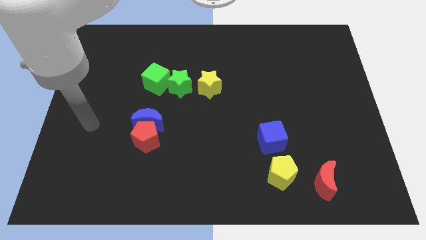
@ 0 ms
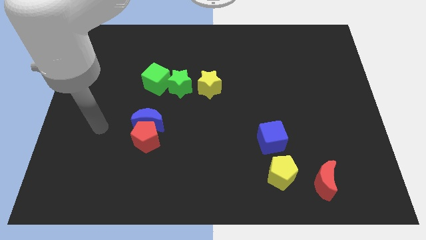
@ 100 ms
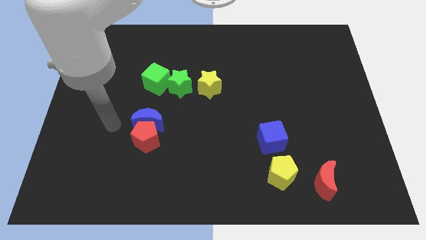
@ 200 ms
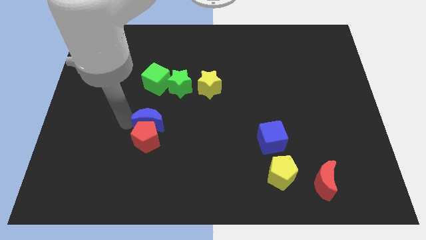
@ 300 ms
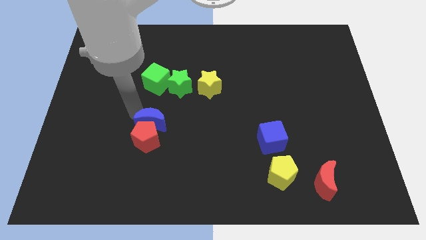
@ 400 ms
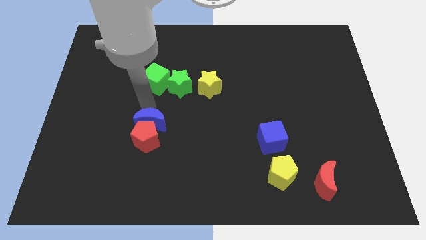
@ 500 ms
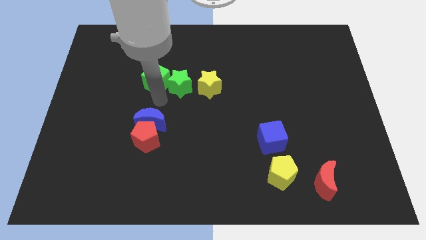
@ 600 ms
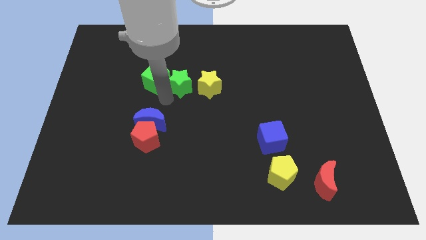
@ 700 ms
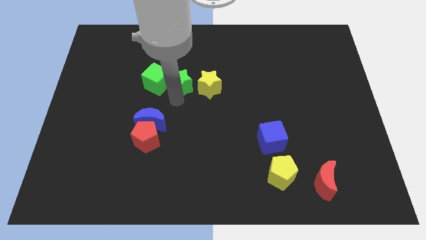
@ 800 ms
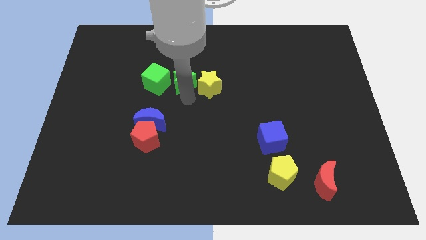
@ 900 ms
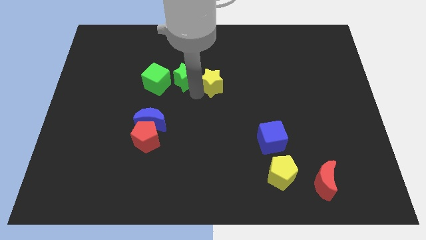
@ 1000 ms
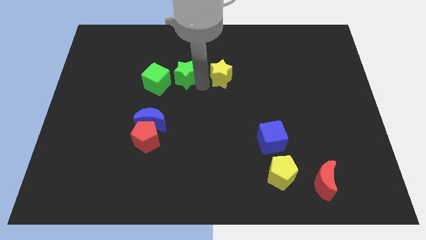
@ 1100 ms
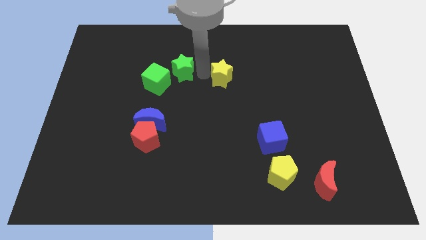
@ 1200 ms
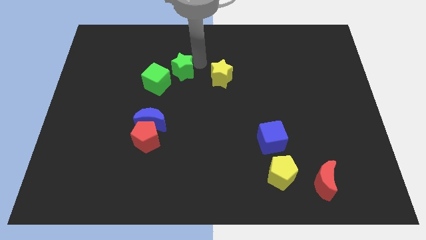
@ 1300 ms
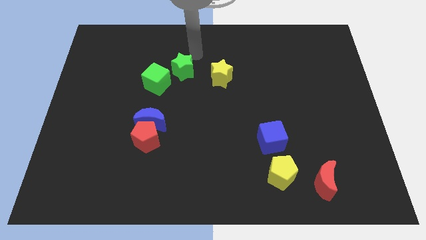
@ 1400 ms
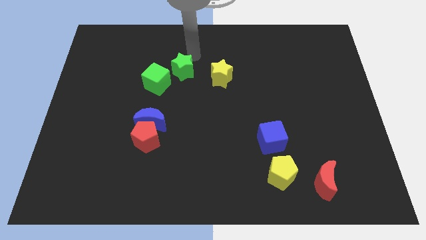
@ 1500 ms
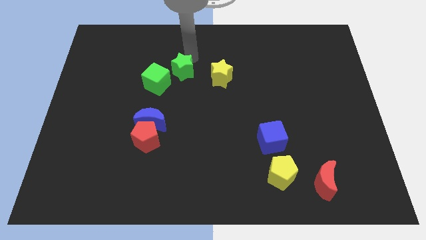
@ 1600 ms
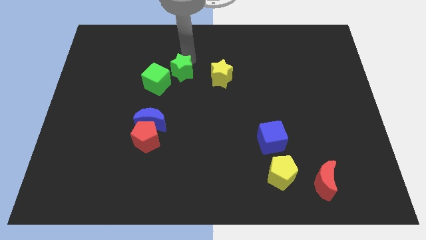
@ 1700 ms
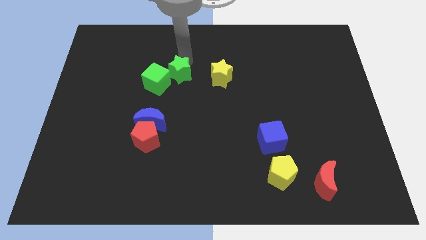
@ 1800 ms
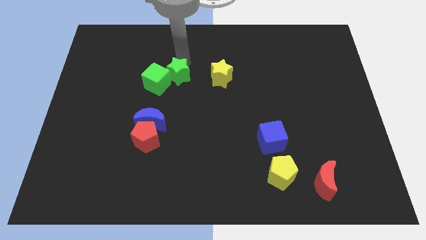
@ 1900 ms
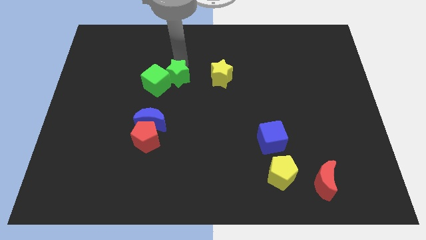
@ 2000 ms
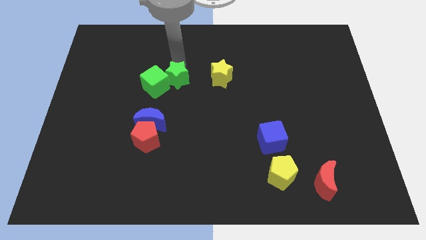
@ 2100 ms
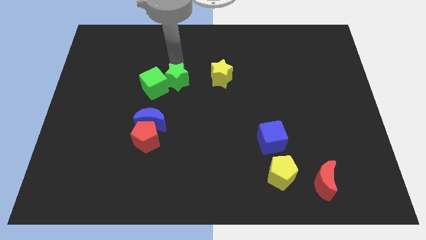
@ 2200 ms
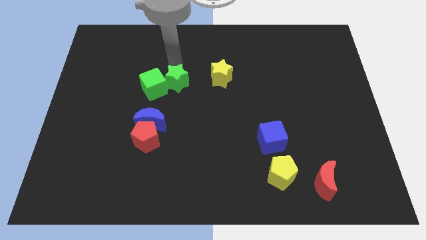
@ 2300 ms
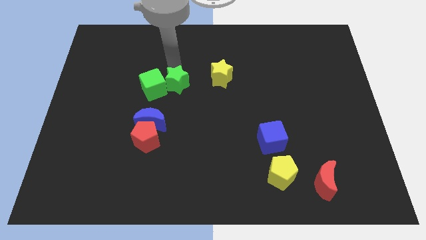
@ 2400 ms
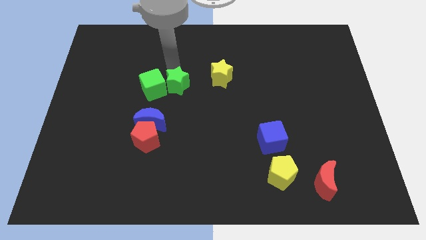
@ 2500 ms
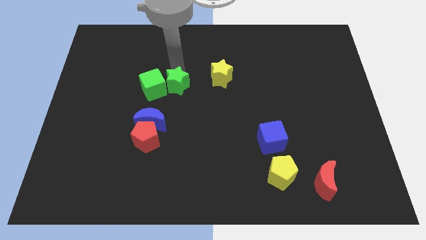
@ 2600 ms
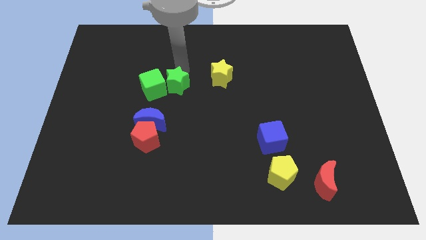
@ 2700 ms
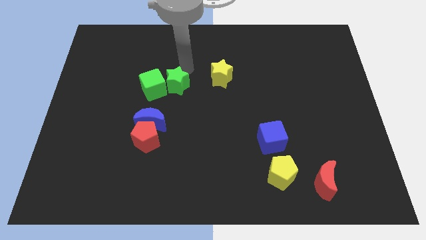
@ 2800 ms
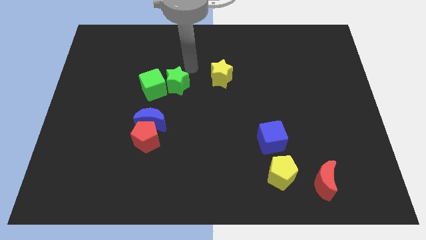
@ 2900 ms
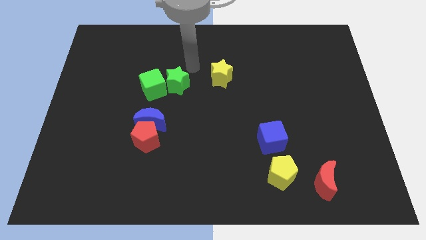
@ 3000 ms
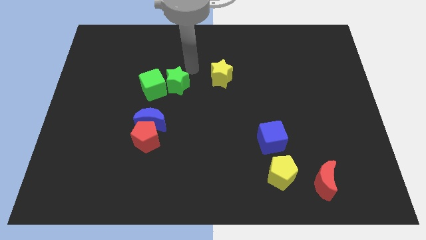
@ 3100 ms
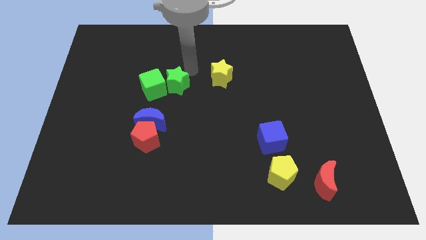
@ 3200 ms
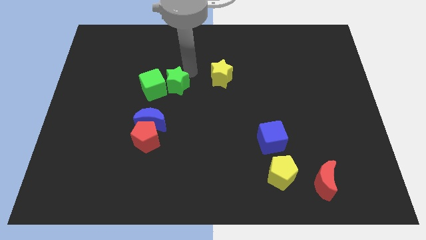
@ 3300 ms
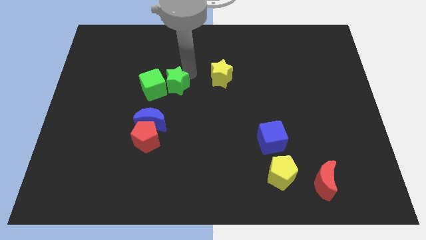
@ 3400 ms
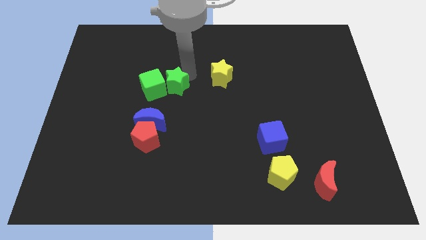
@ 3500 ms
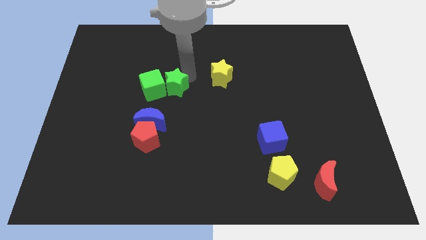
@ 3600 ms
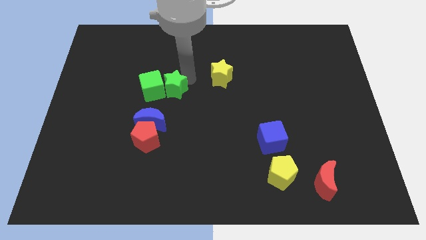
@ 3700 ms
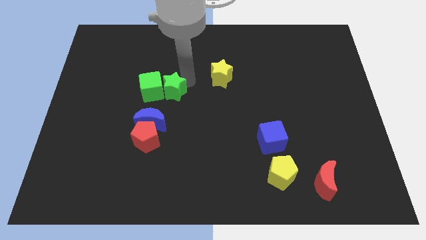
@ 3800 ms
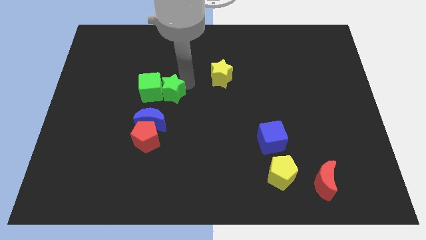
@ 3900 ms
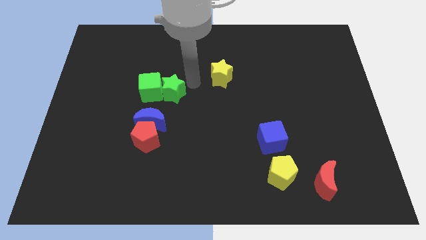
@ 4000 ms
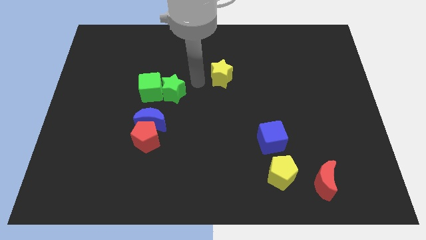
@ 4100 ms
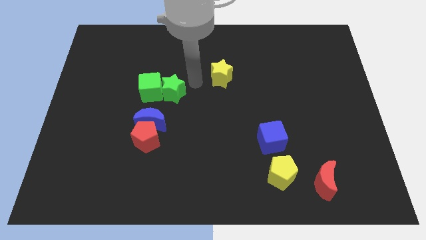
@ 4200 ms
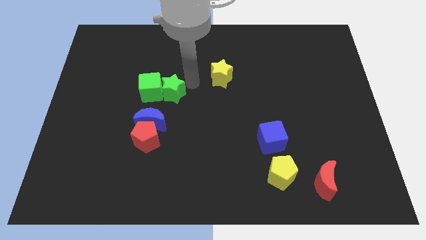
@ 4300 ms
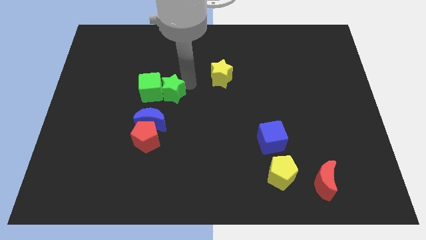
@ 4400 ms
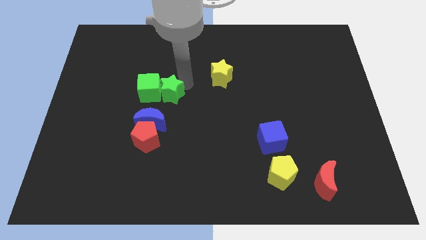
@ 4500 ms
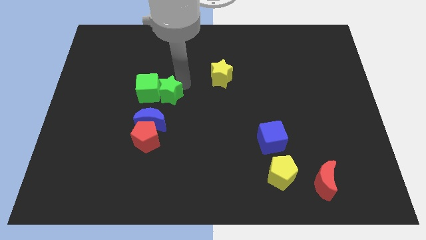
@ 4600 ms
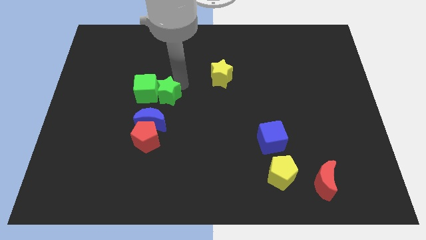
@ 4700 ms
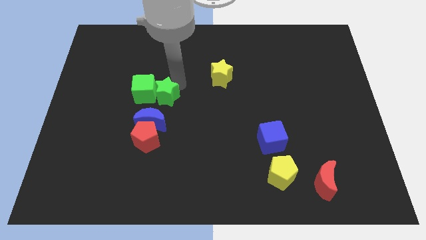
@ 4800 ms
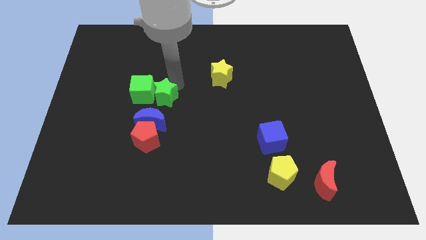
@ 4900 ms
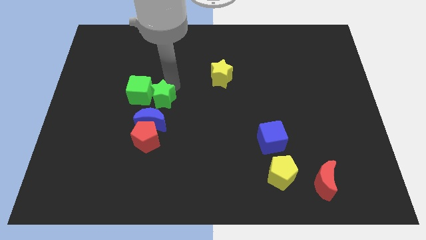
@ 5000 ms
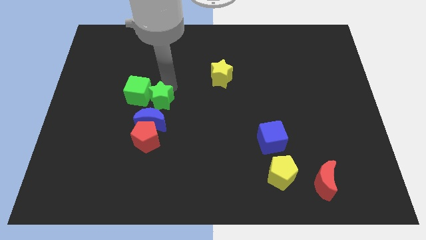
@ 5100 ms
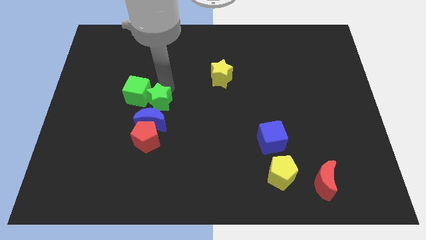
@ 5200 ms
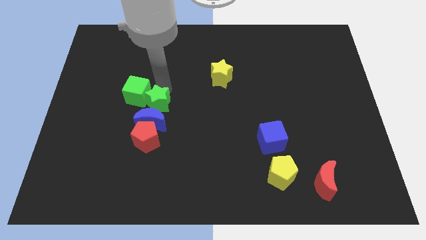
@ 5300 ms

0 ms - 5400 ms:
slightly push the green star diagonally downwards and to the left

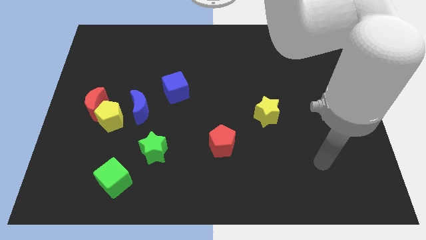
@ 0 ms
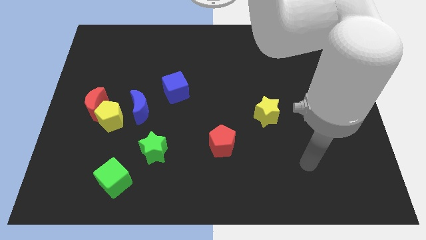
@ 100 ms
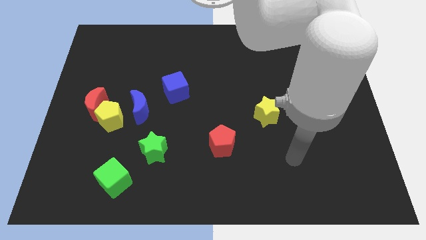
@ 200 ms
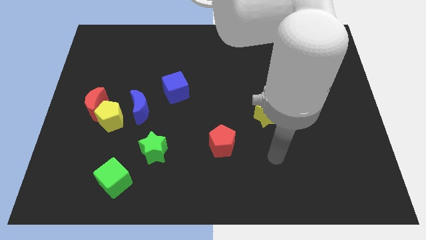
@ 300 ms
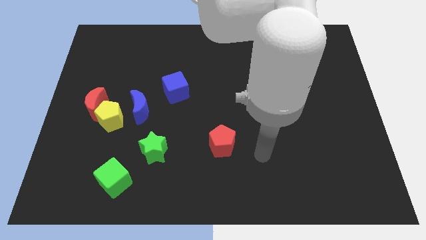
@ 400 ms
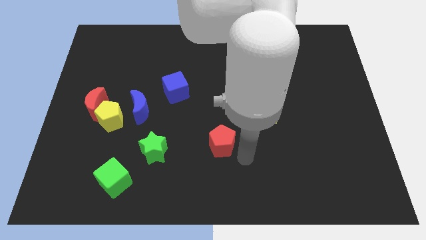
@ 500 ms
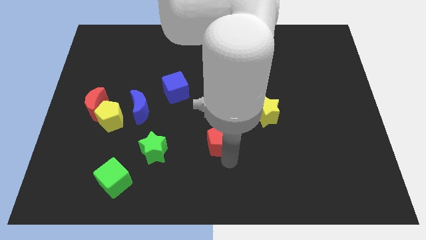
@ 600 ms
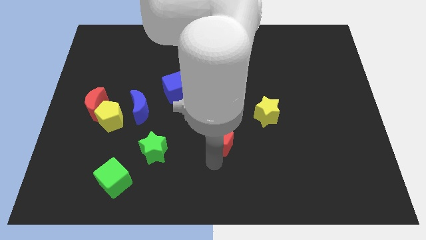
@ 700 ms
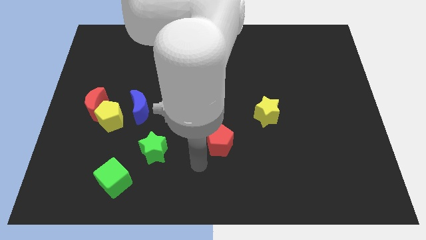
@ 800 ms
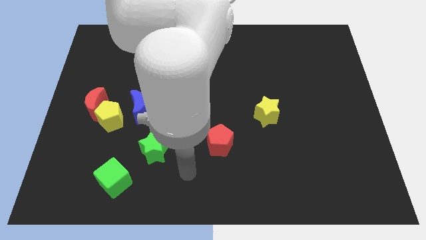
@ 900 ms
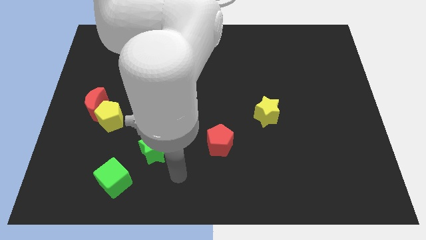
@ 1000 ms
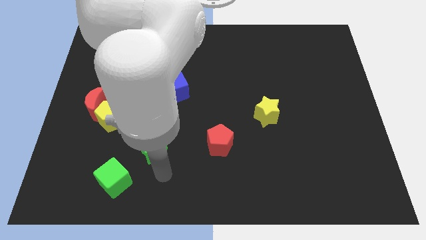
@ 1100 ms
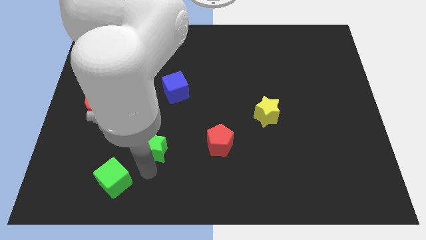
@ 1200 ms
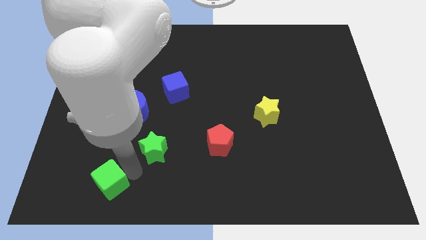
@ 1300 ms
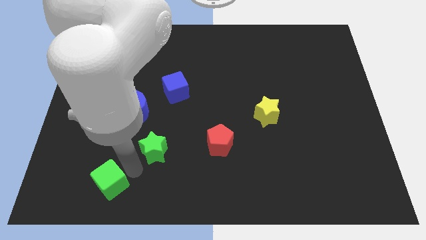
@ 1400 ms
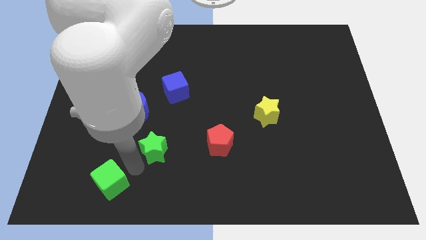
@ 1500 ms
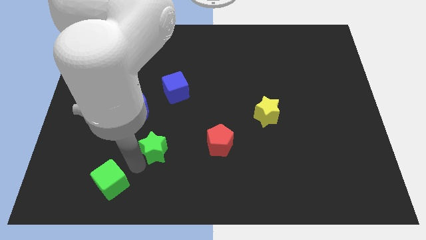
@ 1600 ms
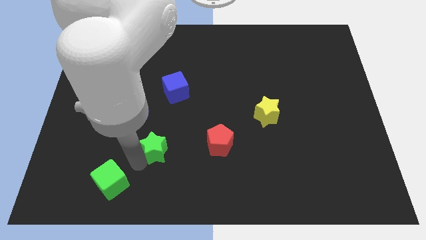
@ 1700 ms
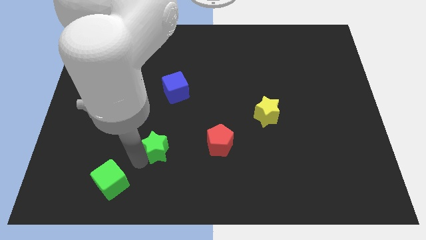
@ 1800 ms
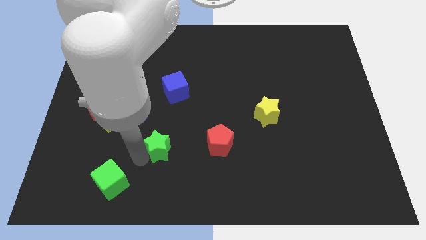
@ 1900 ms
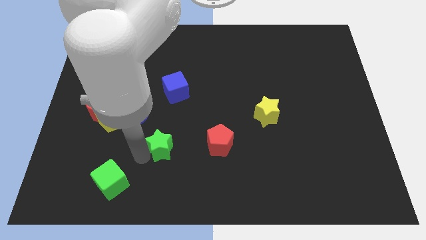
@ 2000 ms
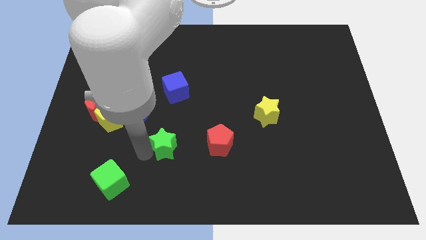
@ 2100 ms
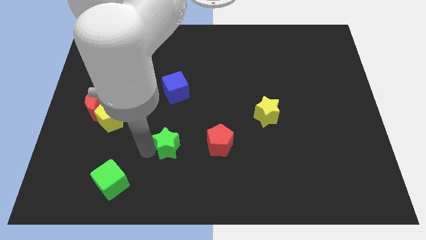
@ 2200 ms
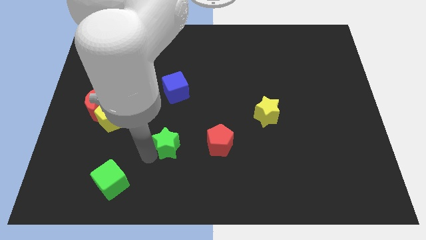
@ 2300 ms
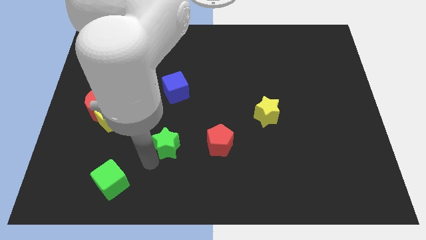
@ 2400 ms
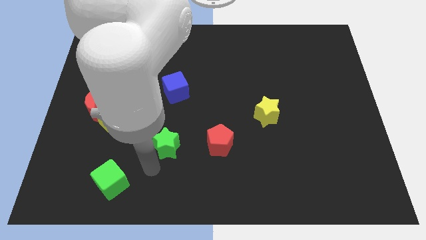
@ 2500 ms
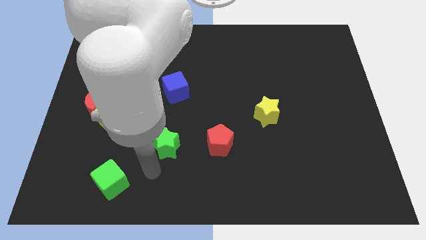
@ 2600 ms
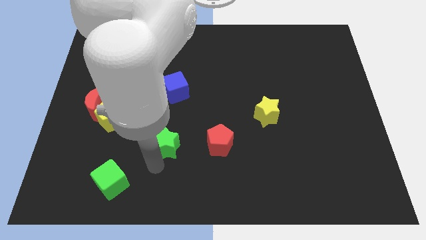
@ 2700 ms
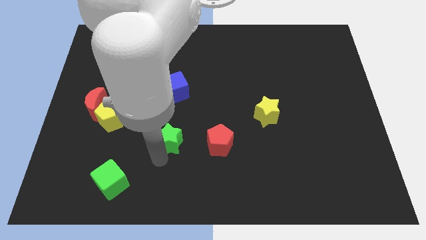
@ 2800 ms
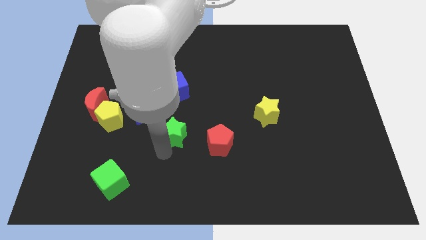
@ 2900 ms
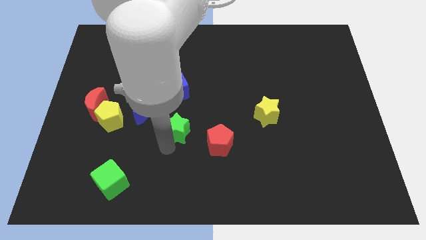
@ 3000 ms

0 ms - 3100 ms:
move the green star upwards and to the right diagonally a little bit
